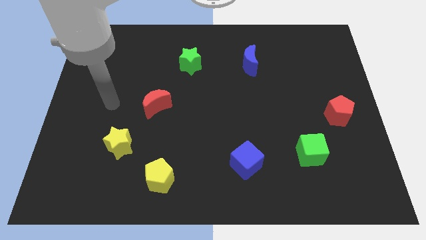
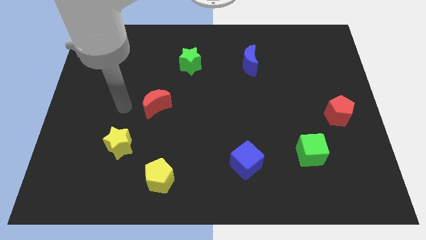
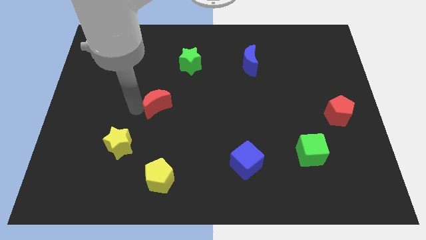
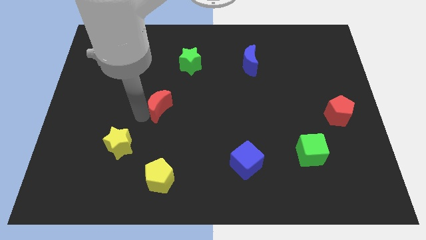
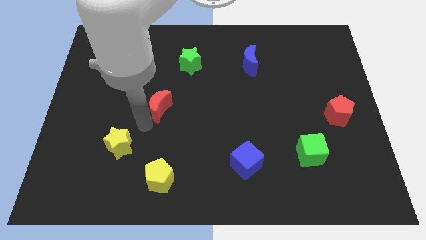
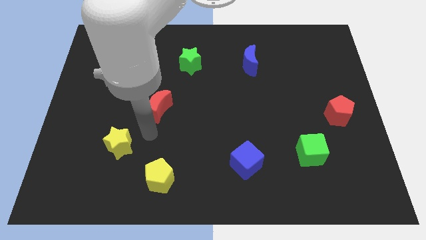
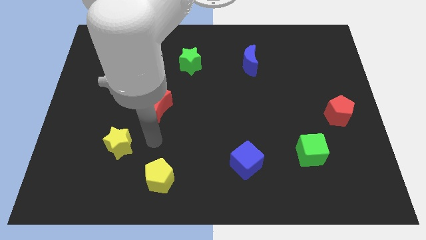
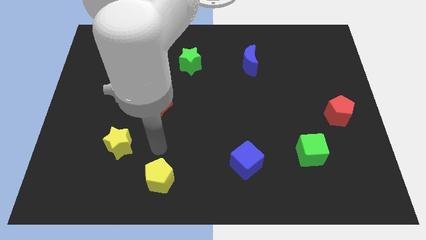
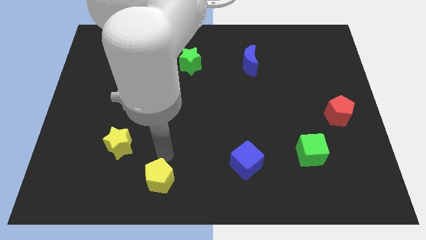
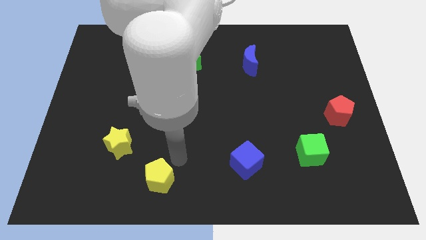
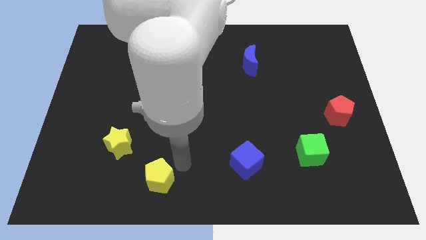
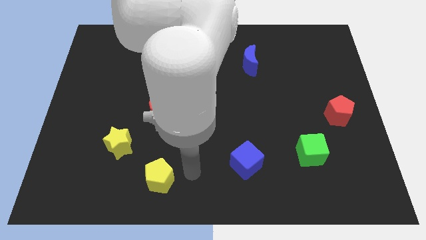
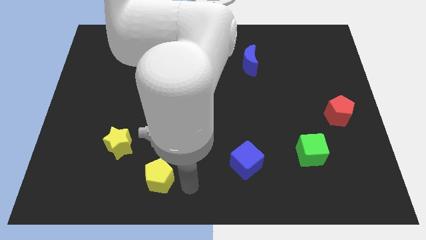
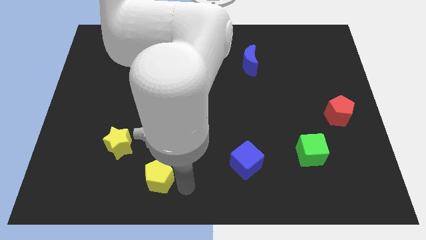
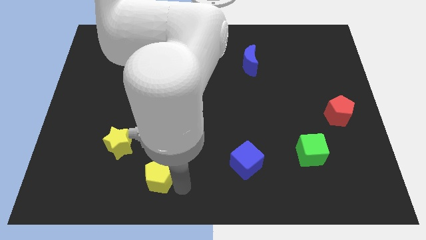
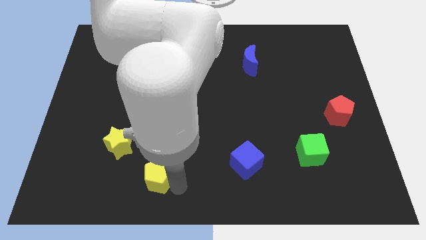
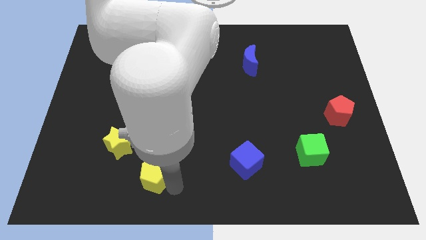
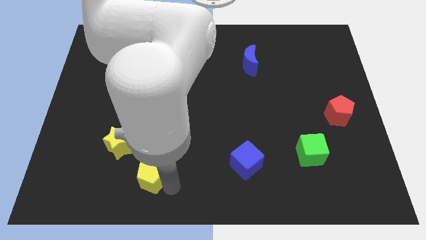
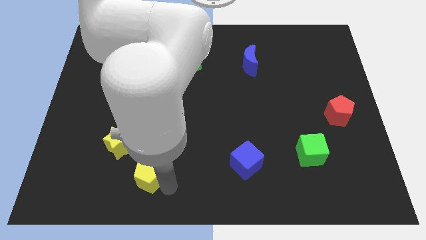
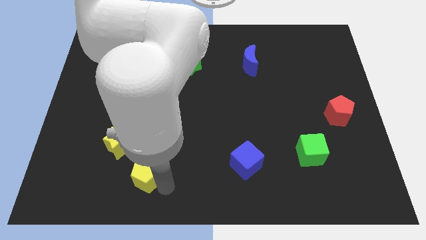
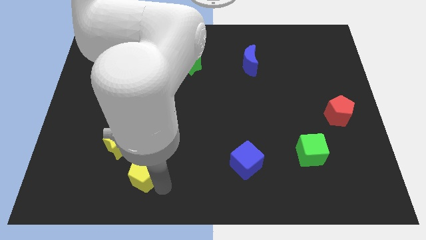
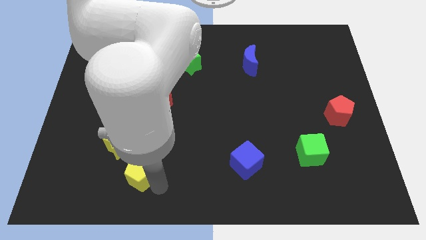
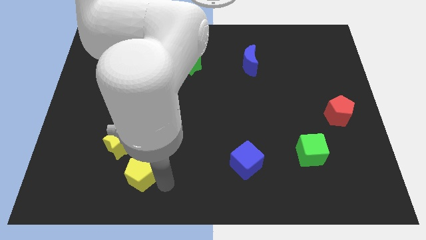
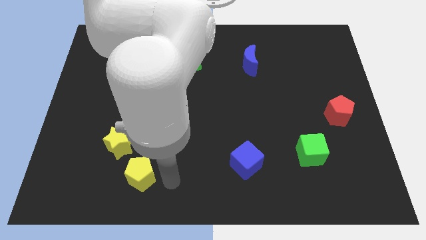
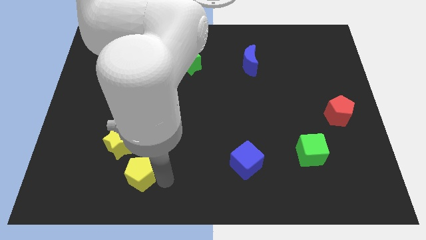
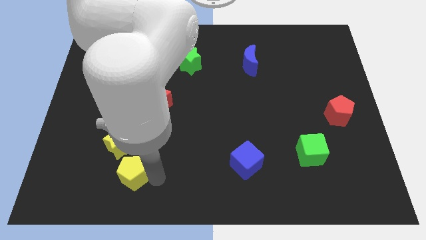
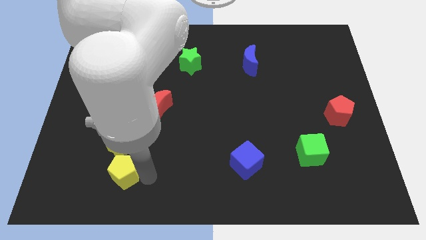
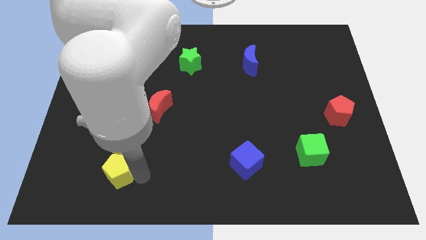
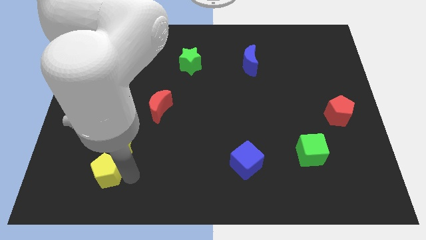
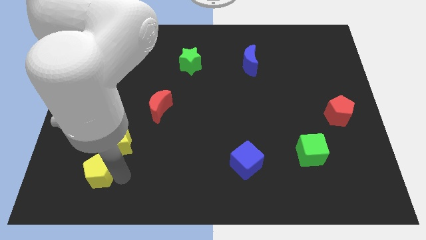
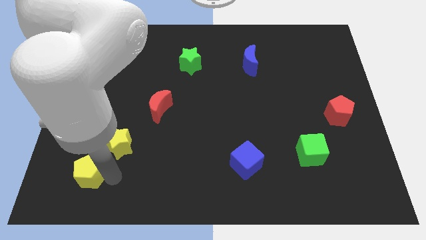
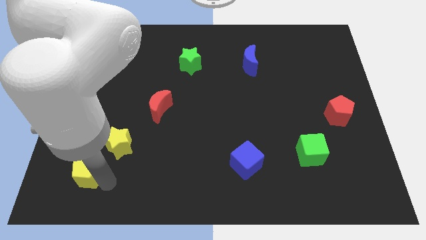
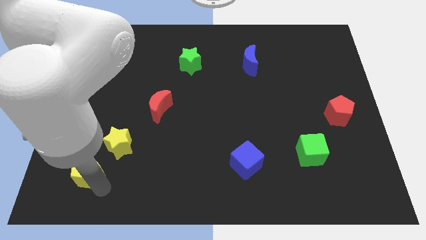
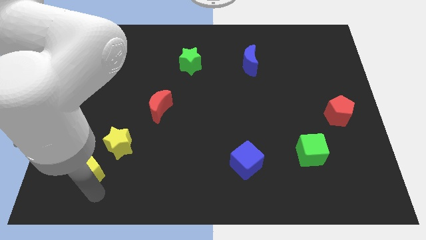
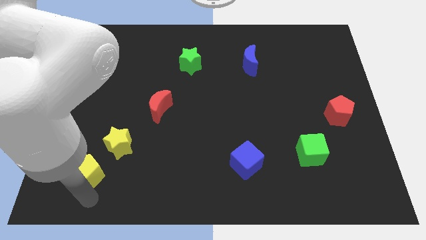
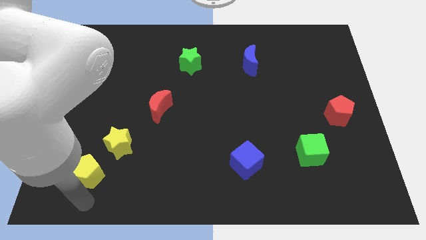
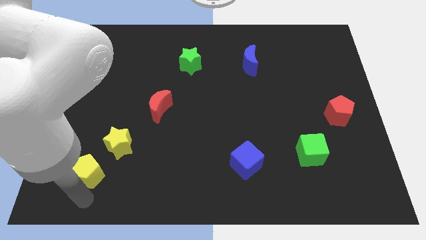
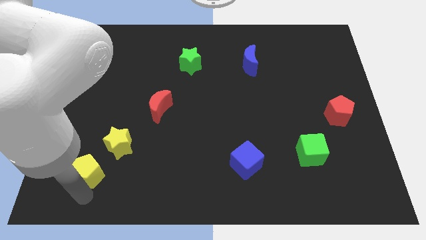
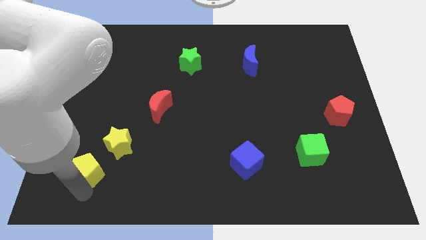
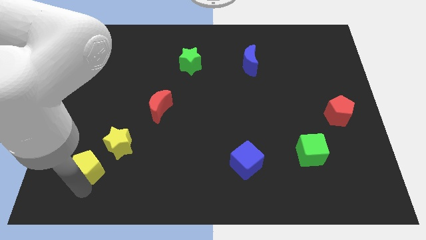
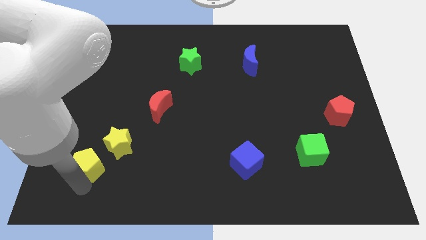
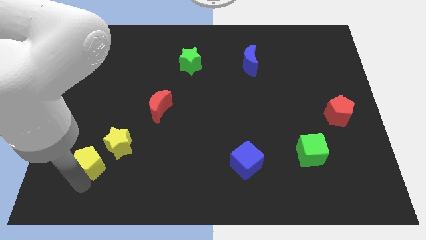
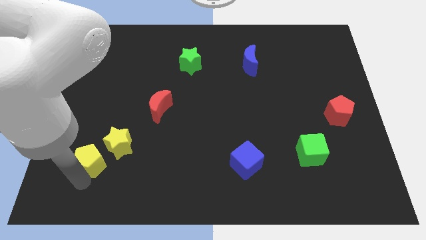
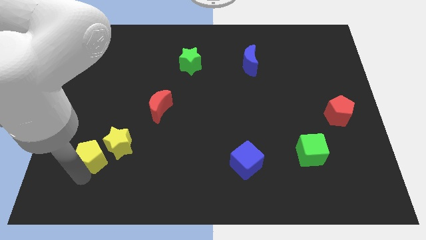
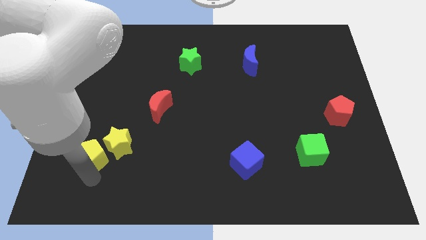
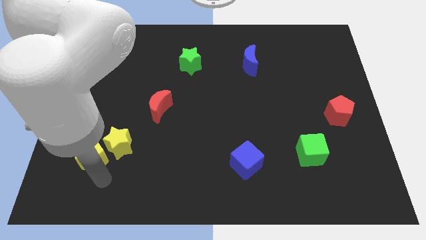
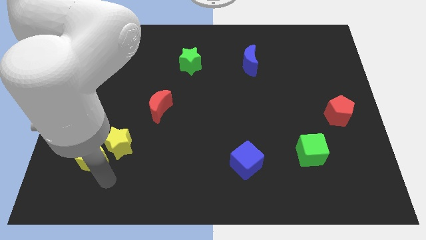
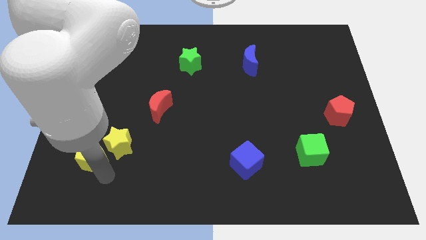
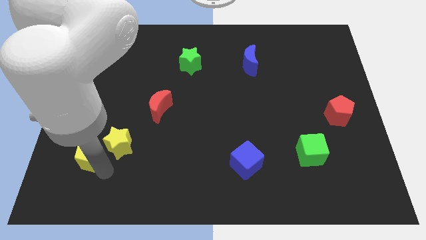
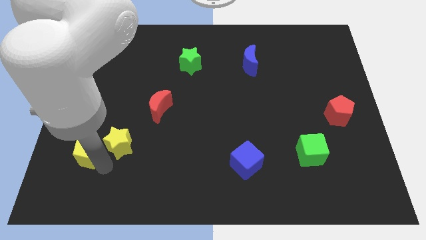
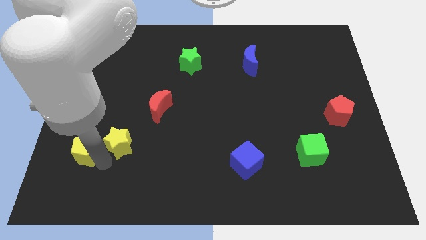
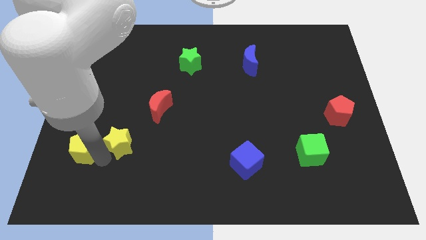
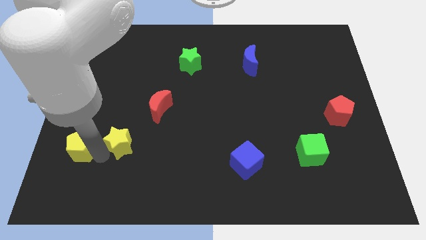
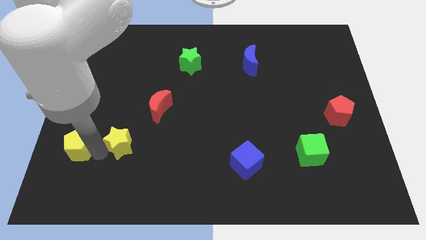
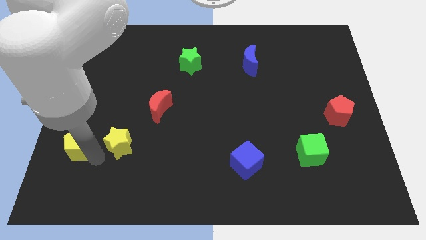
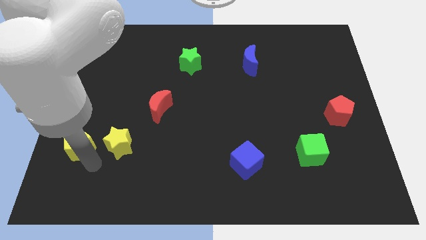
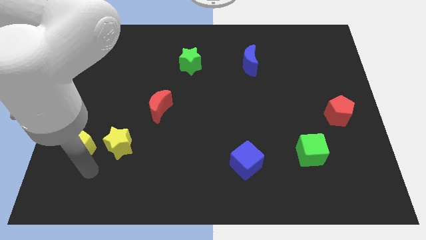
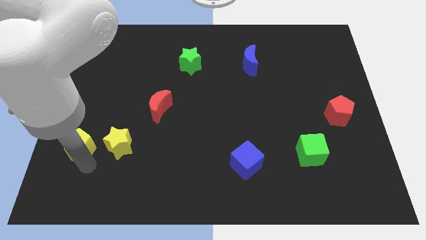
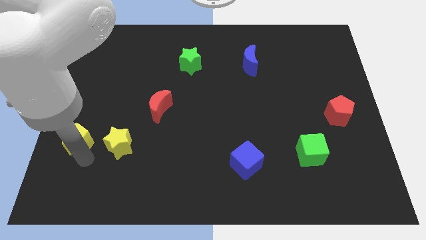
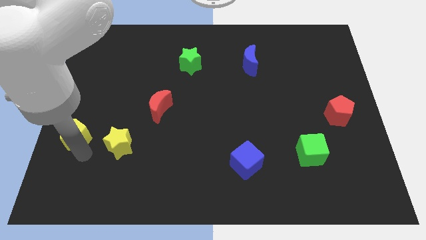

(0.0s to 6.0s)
slide the yellow pentagon to the left side

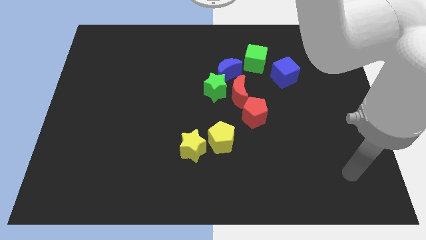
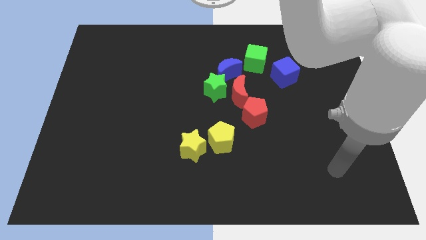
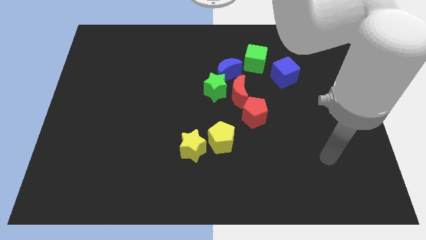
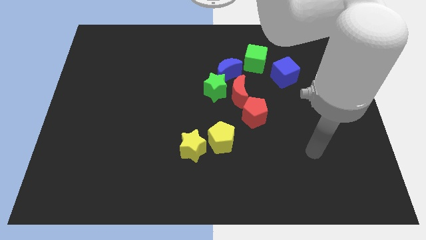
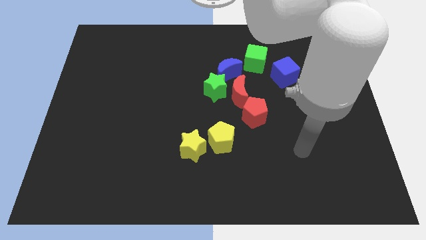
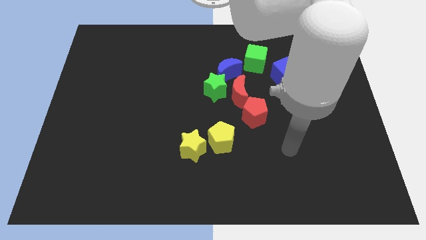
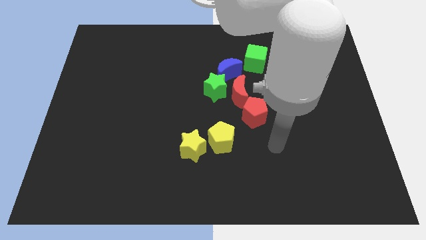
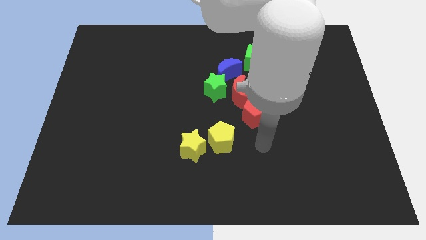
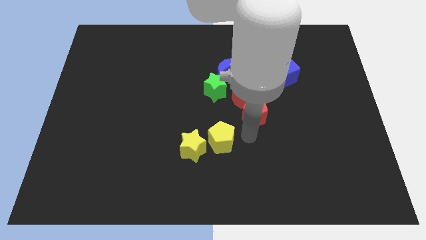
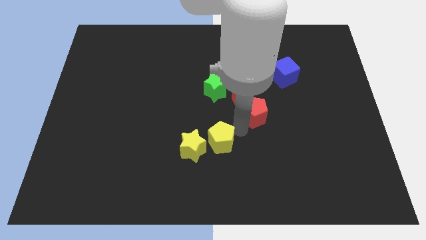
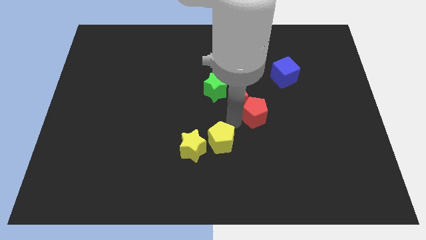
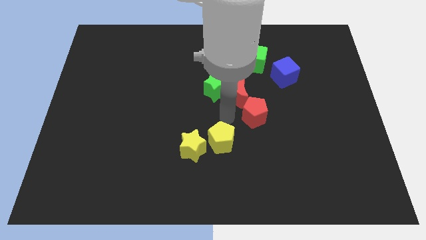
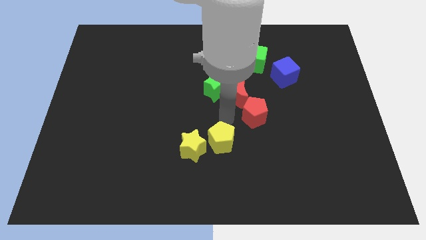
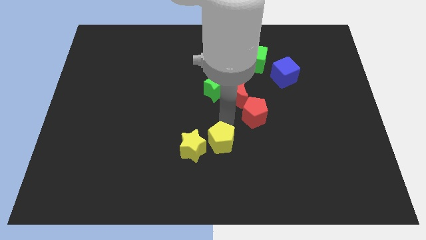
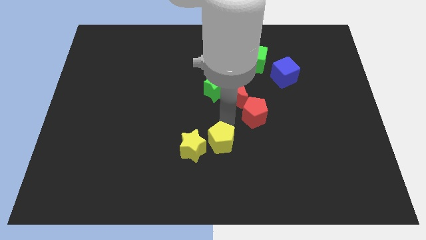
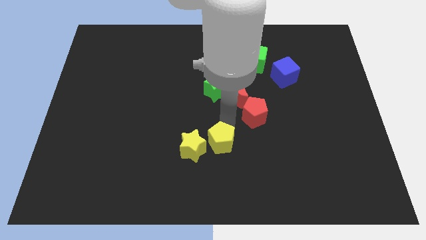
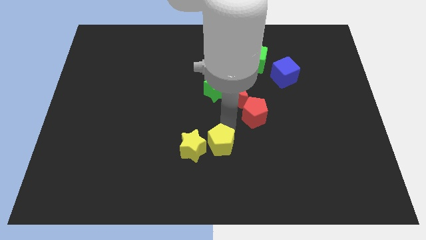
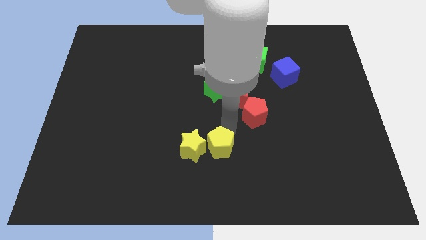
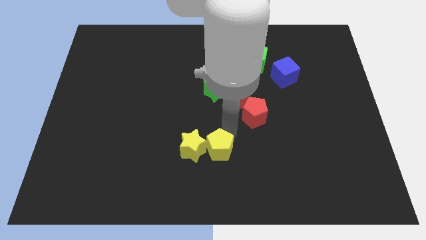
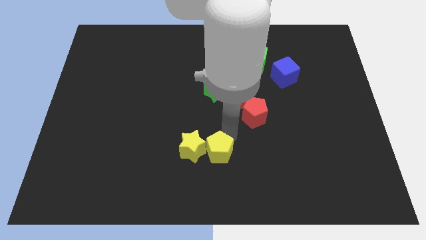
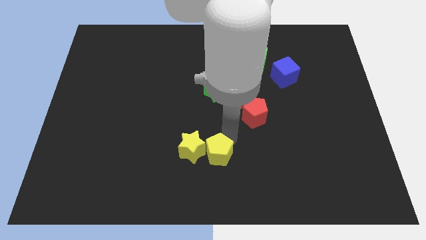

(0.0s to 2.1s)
push the yellow pentagon to the bottom side
